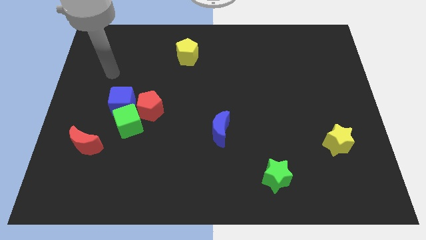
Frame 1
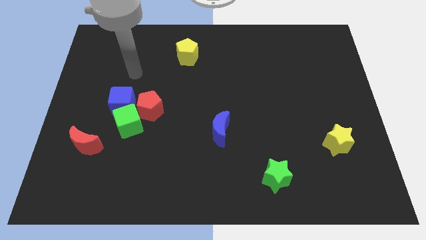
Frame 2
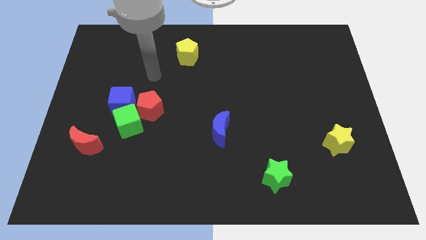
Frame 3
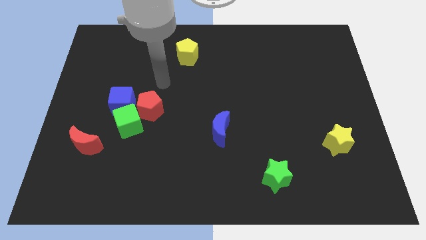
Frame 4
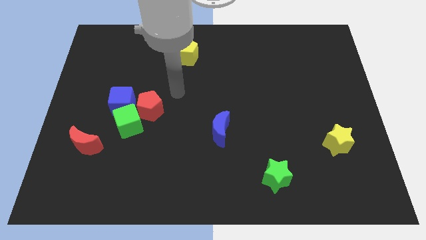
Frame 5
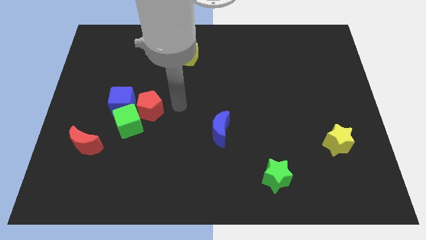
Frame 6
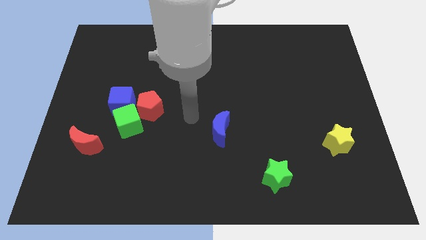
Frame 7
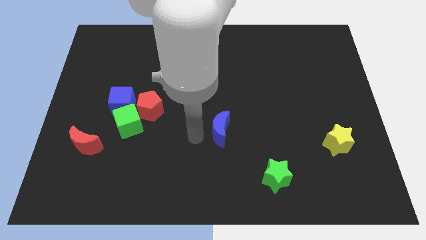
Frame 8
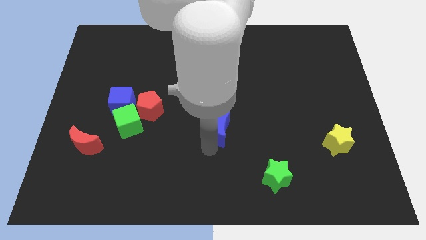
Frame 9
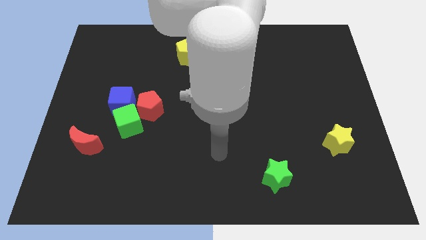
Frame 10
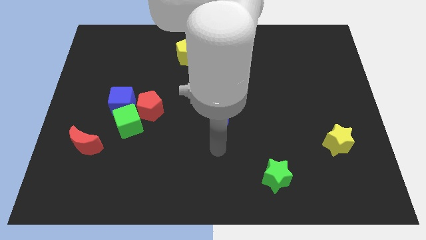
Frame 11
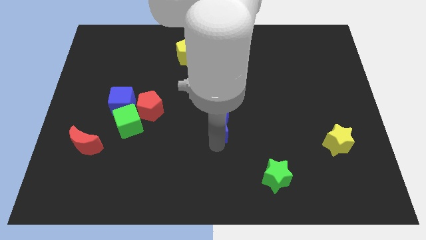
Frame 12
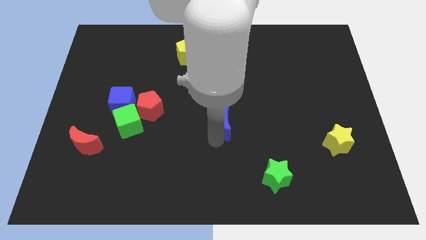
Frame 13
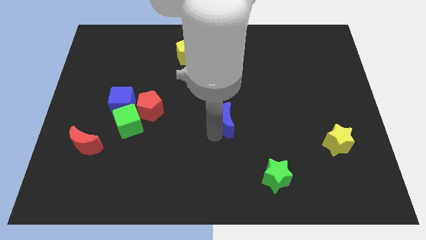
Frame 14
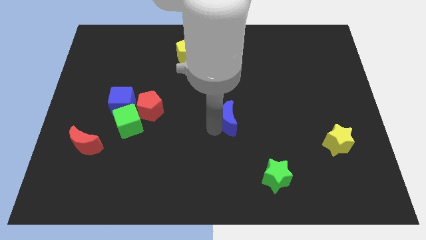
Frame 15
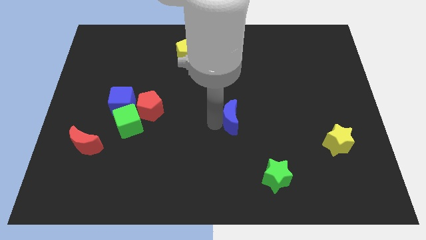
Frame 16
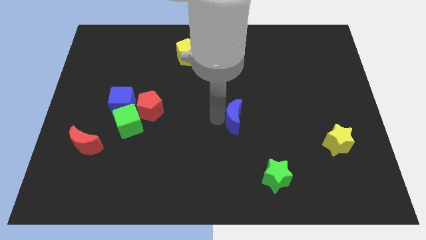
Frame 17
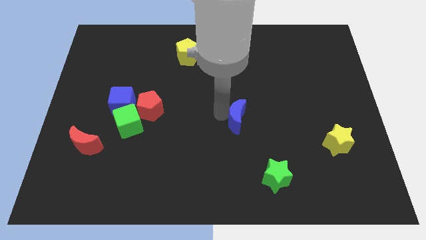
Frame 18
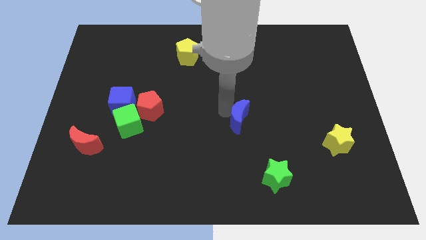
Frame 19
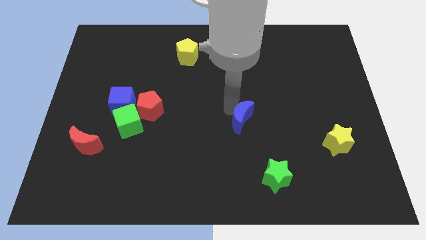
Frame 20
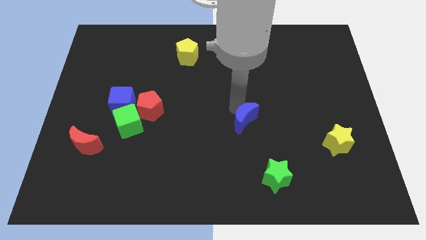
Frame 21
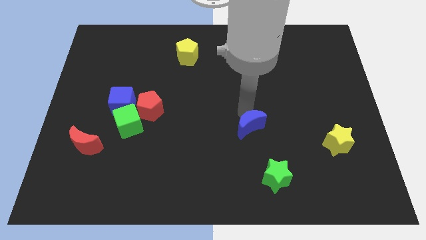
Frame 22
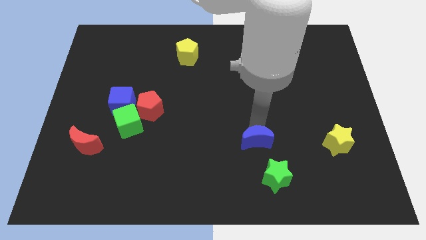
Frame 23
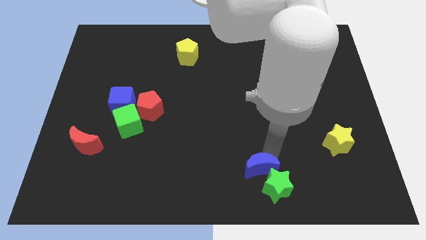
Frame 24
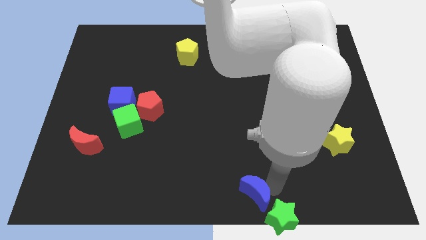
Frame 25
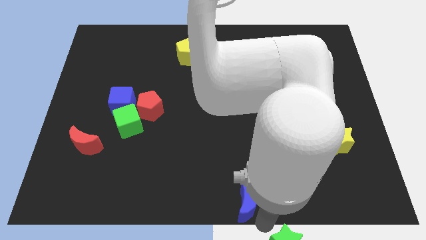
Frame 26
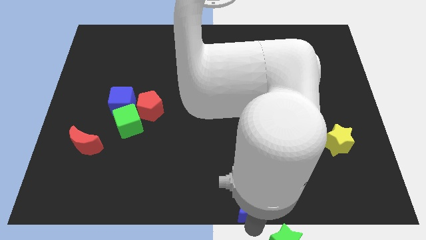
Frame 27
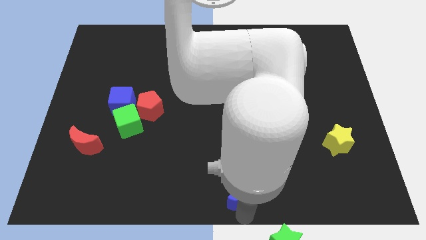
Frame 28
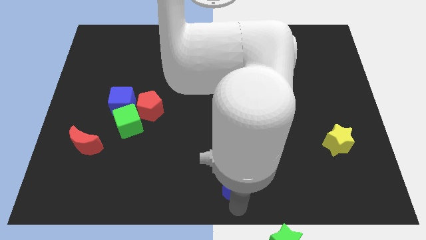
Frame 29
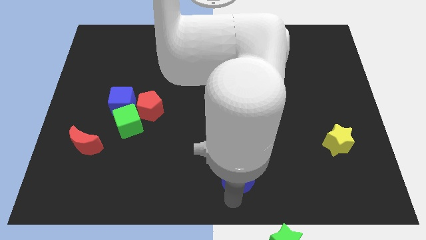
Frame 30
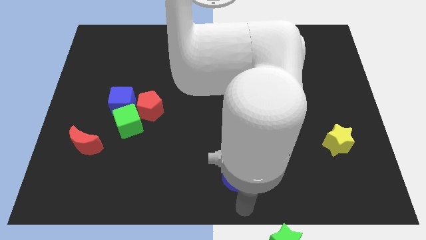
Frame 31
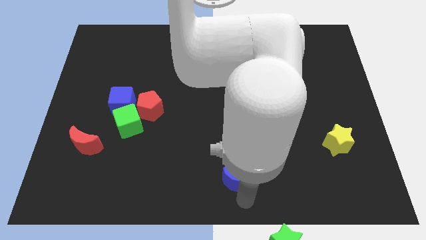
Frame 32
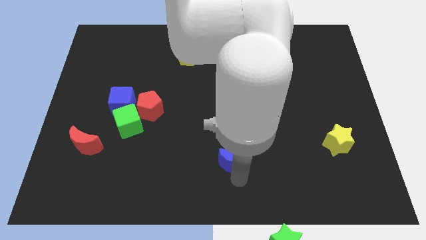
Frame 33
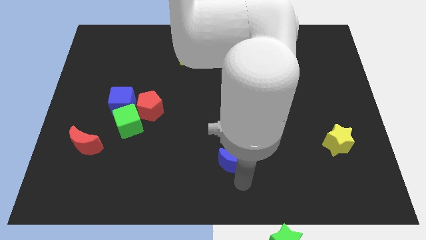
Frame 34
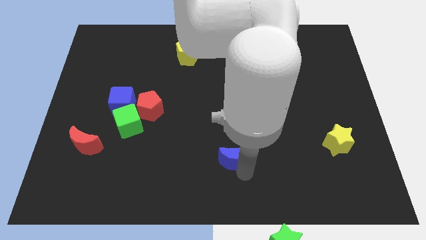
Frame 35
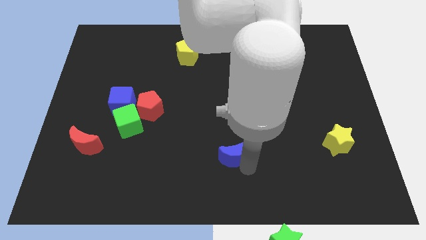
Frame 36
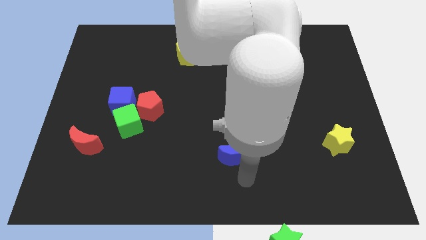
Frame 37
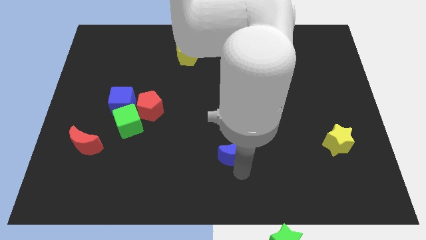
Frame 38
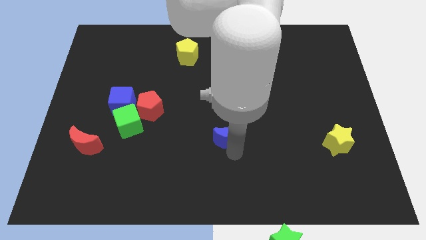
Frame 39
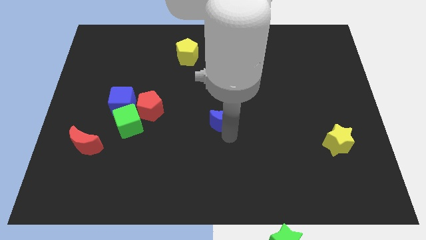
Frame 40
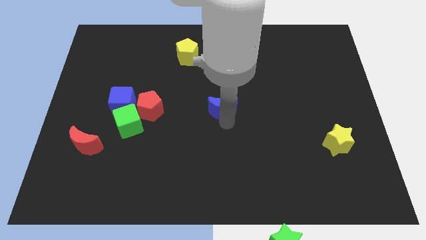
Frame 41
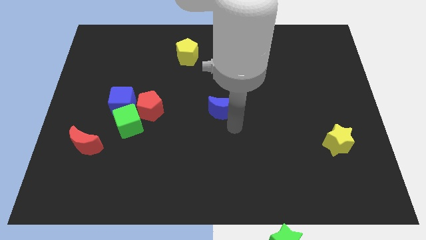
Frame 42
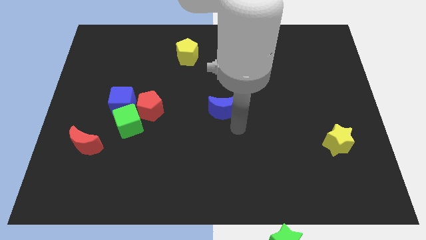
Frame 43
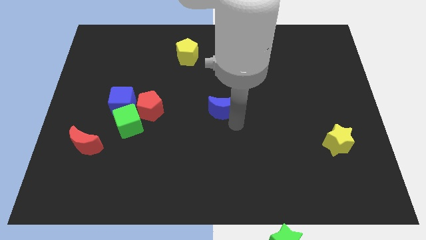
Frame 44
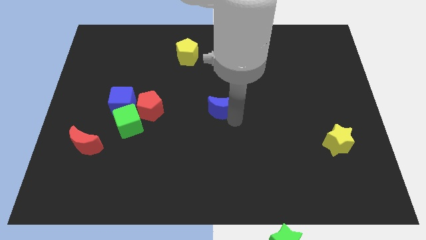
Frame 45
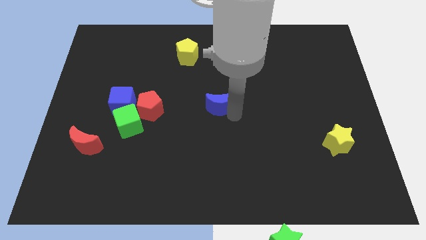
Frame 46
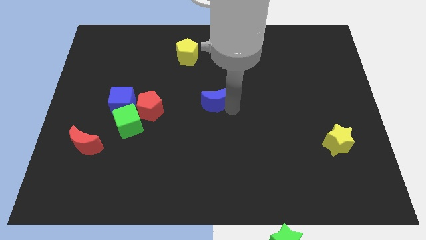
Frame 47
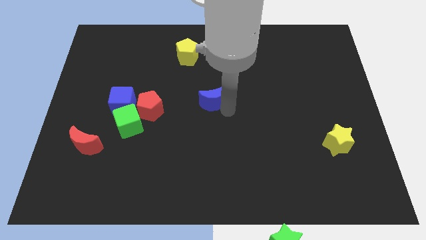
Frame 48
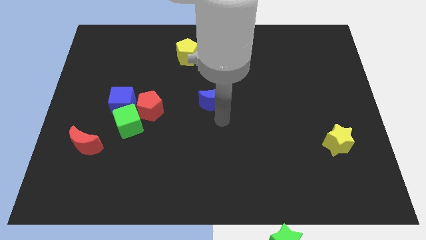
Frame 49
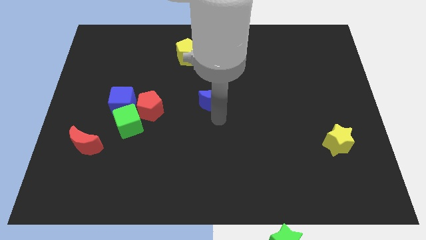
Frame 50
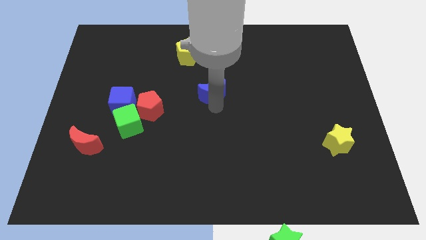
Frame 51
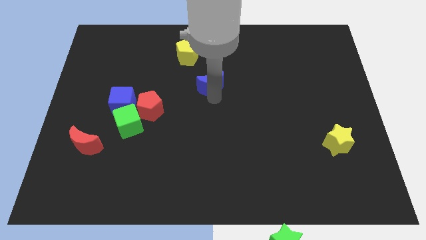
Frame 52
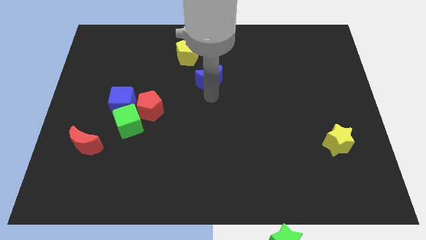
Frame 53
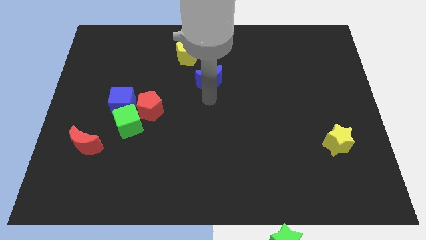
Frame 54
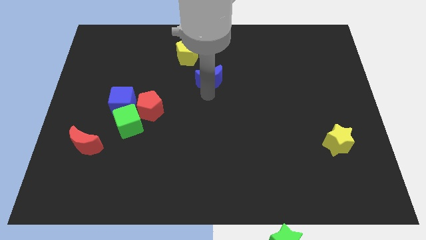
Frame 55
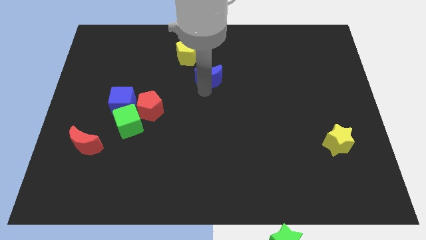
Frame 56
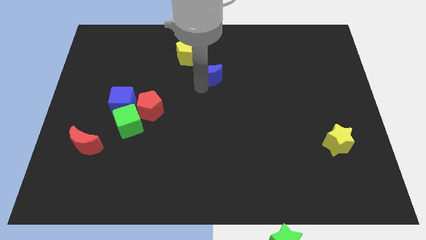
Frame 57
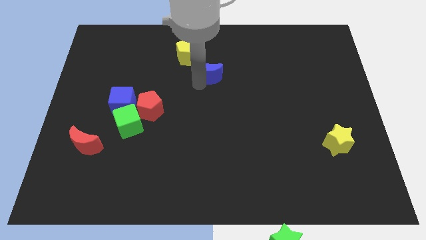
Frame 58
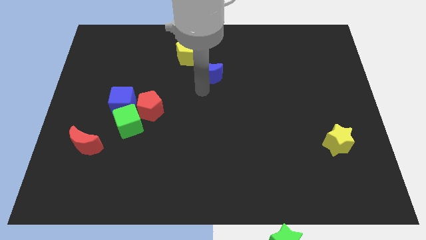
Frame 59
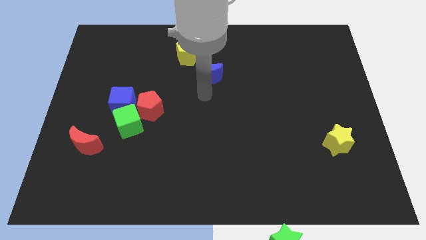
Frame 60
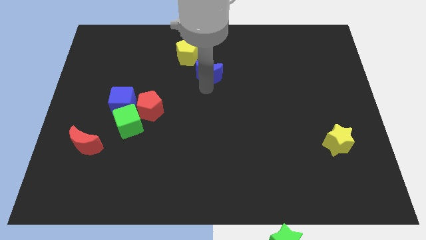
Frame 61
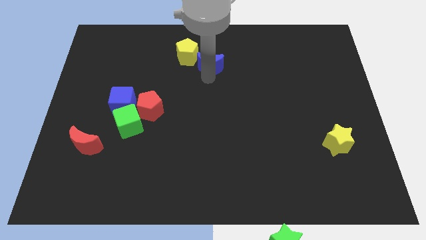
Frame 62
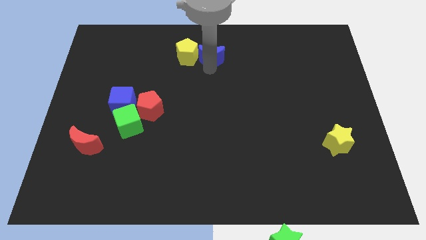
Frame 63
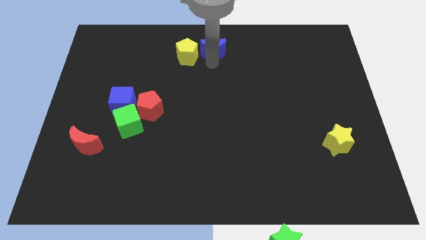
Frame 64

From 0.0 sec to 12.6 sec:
move the blue moon to the top
